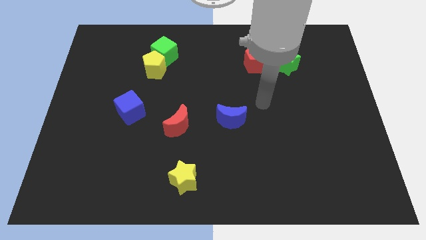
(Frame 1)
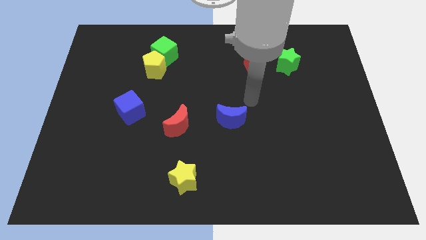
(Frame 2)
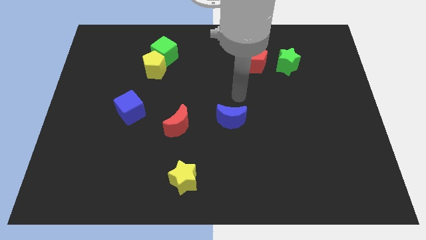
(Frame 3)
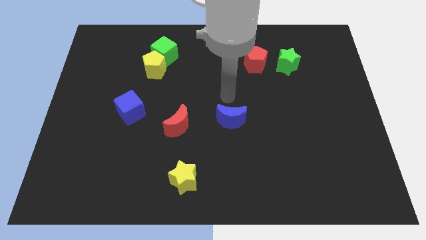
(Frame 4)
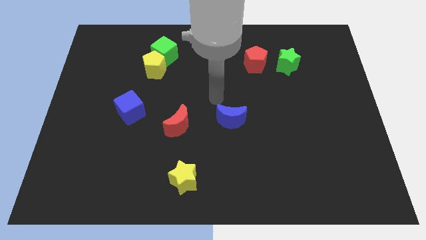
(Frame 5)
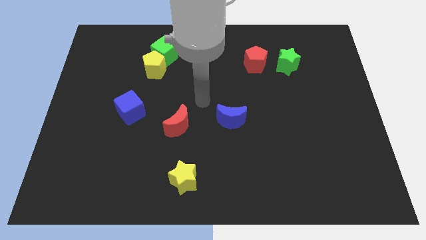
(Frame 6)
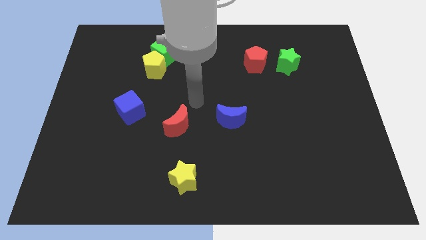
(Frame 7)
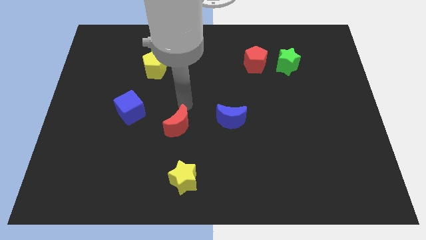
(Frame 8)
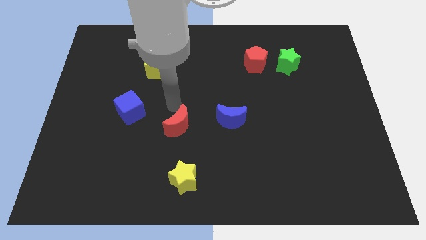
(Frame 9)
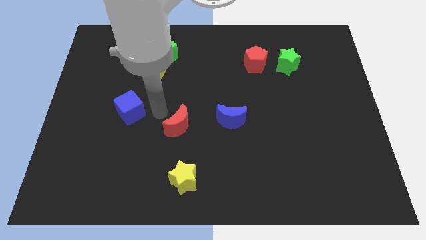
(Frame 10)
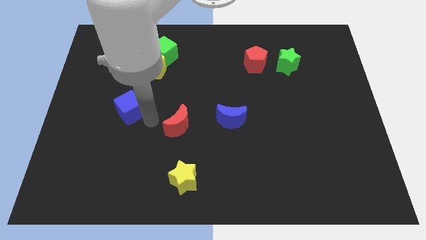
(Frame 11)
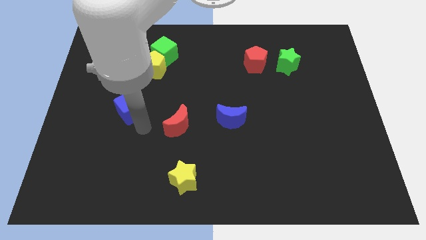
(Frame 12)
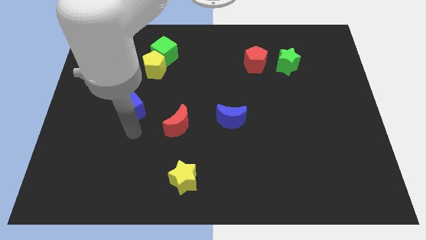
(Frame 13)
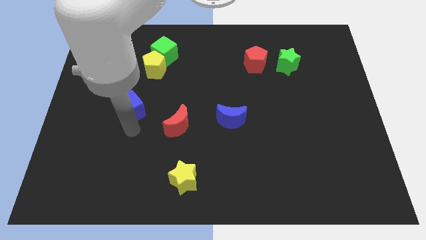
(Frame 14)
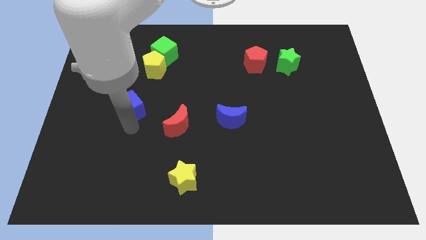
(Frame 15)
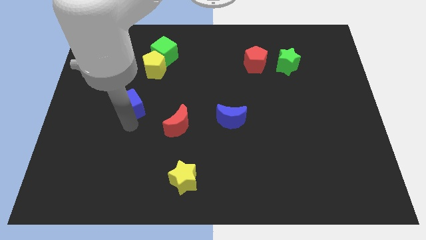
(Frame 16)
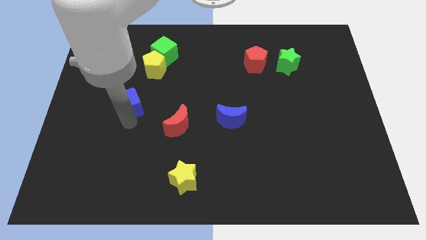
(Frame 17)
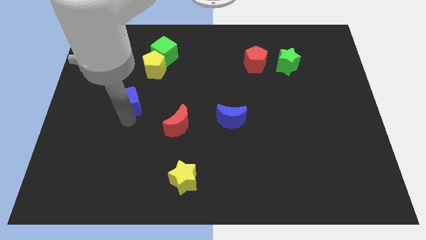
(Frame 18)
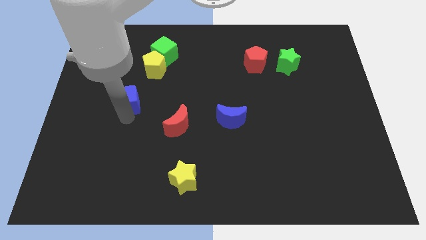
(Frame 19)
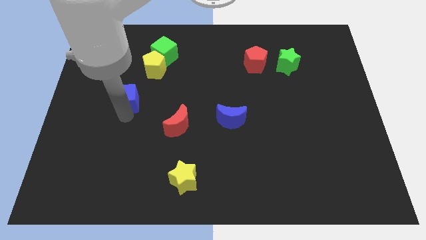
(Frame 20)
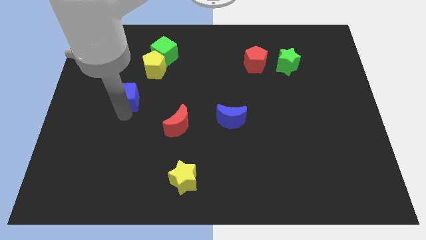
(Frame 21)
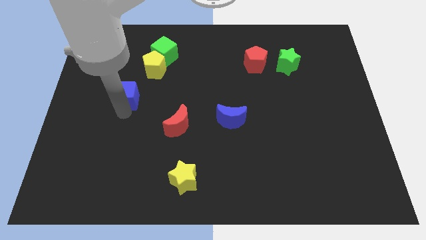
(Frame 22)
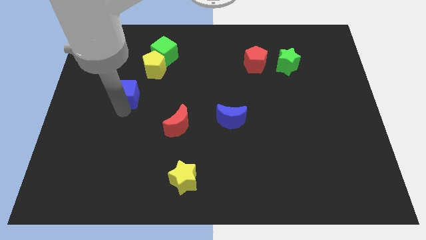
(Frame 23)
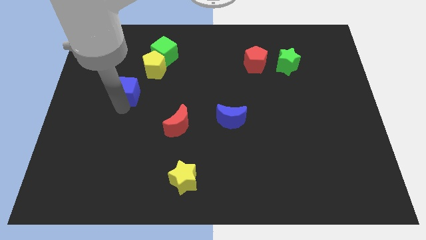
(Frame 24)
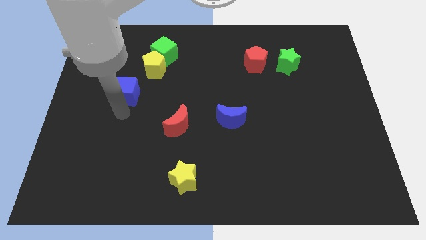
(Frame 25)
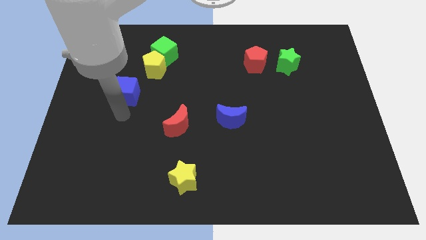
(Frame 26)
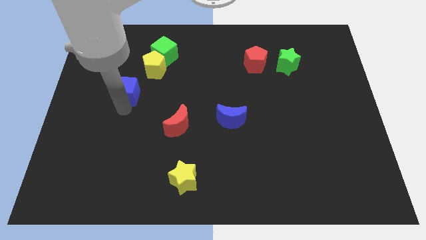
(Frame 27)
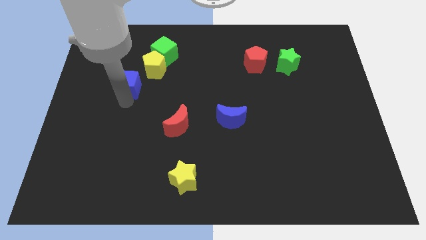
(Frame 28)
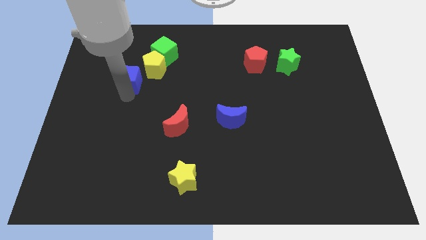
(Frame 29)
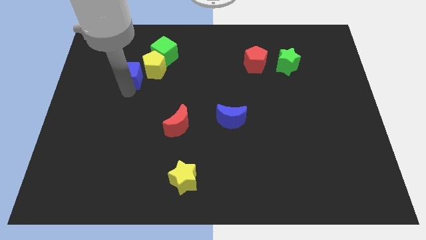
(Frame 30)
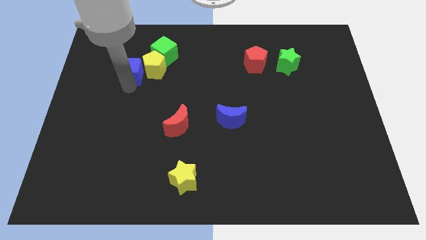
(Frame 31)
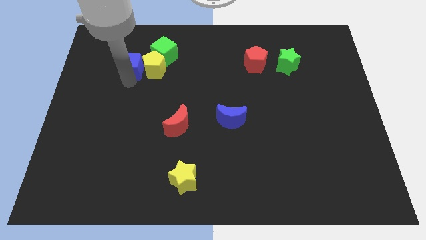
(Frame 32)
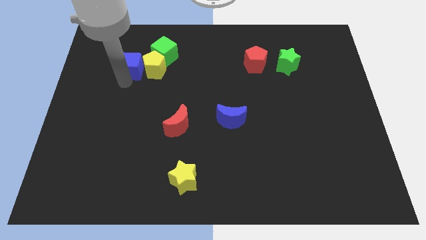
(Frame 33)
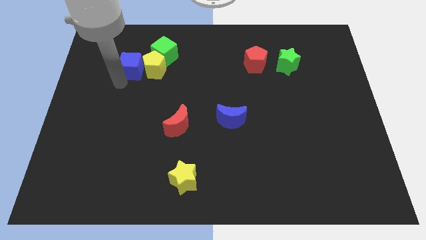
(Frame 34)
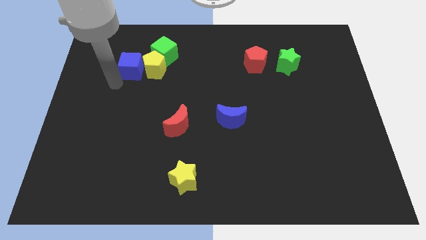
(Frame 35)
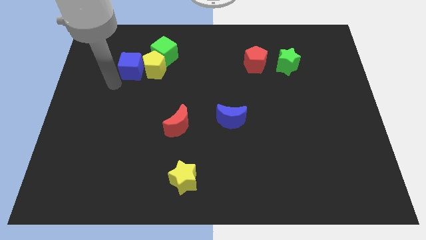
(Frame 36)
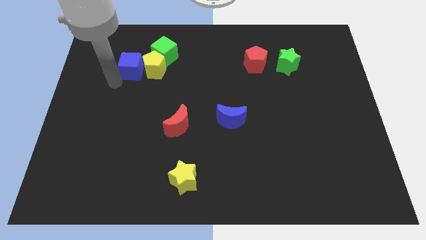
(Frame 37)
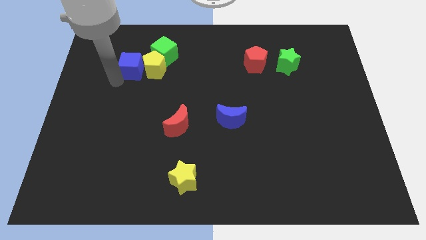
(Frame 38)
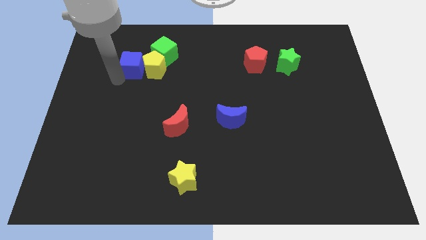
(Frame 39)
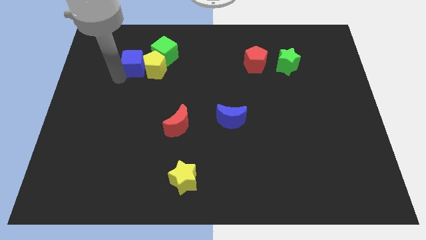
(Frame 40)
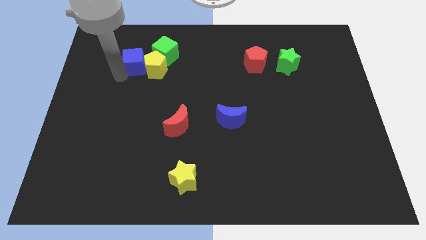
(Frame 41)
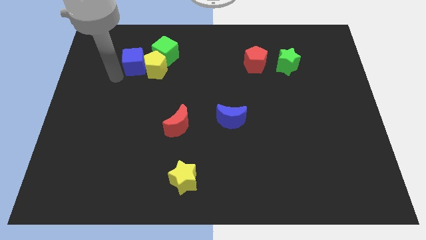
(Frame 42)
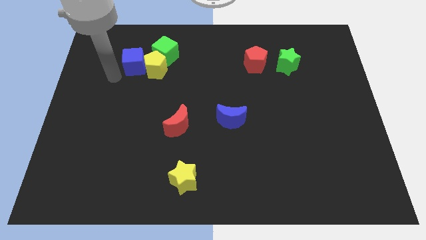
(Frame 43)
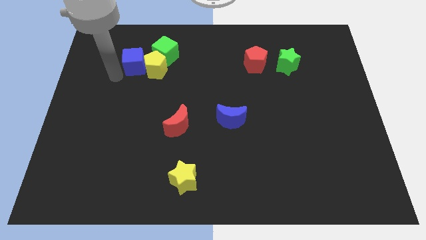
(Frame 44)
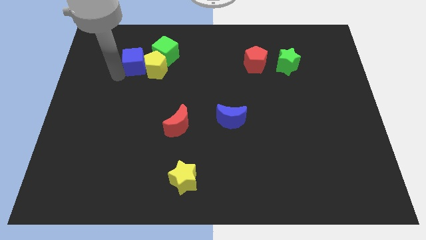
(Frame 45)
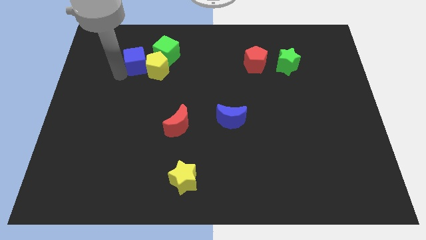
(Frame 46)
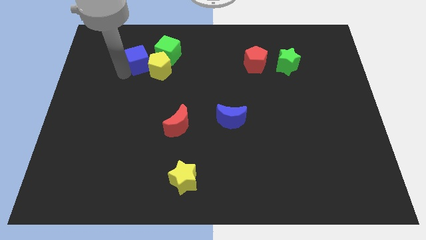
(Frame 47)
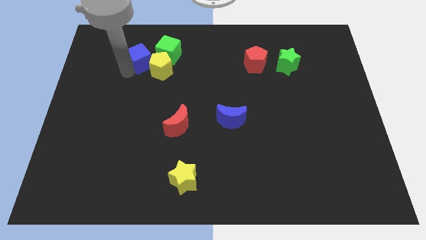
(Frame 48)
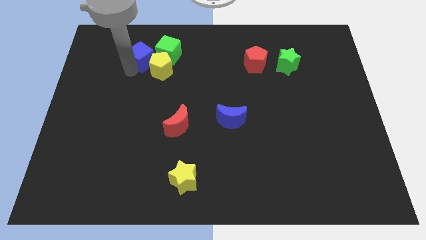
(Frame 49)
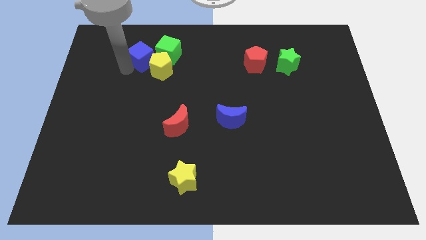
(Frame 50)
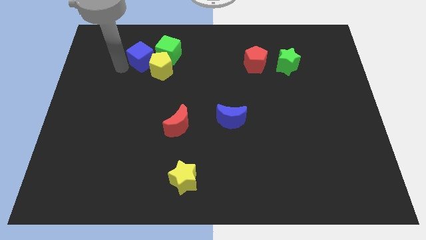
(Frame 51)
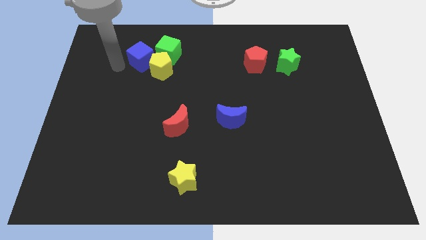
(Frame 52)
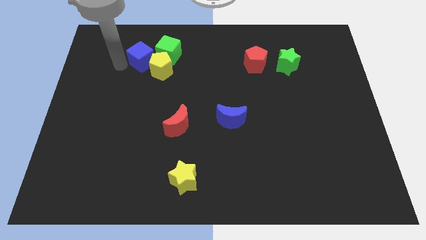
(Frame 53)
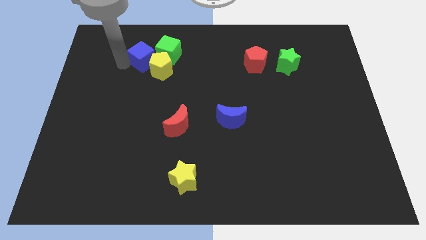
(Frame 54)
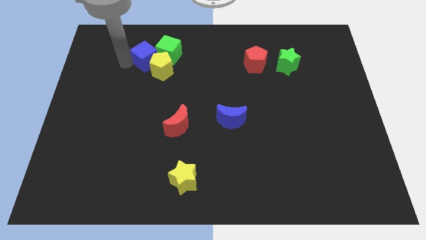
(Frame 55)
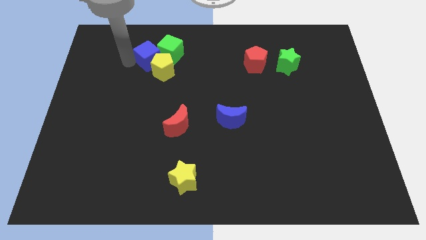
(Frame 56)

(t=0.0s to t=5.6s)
put the blue cube next to the green cube

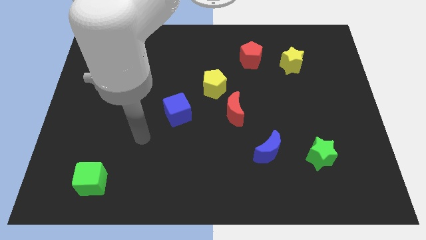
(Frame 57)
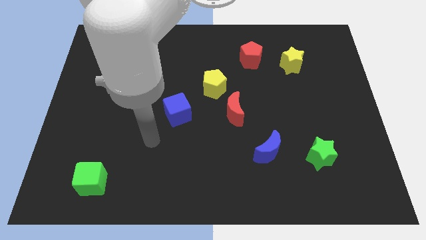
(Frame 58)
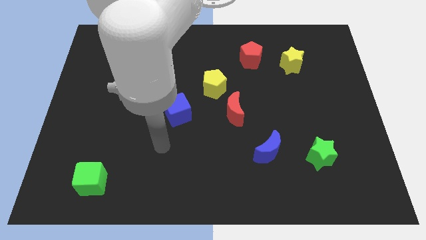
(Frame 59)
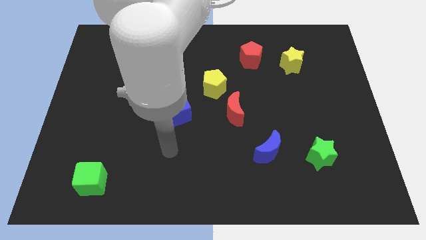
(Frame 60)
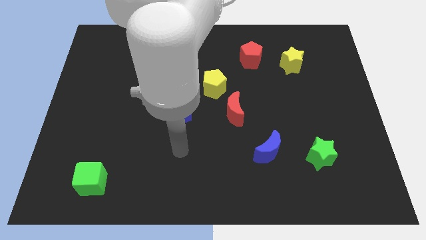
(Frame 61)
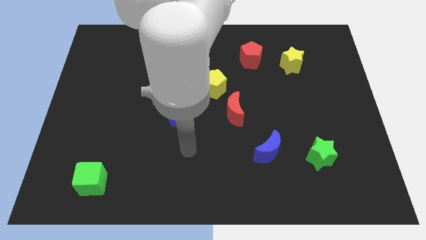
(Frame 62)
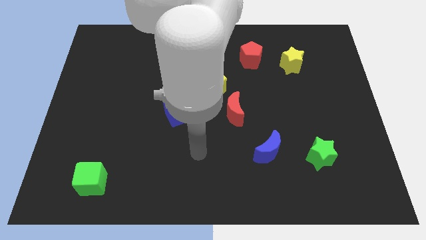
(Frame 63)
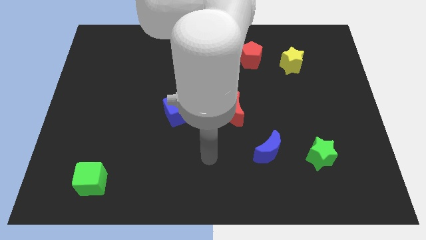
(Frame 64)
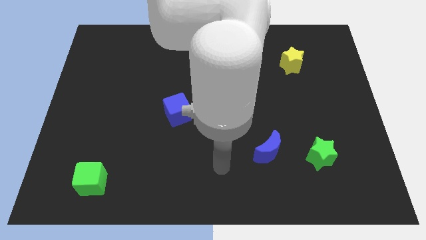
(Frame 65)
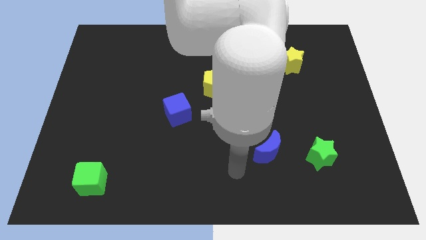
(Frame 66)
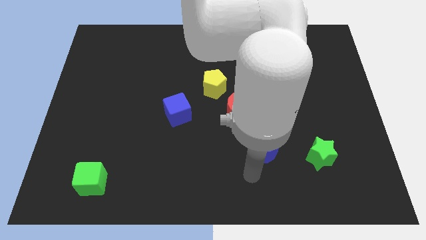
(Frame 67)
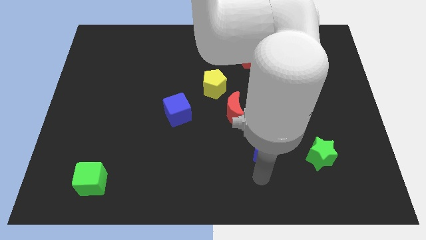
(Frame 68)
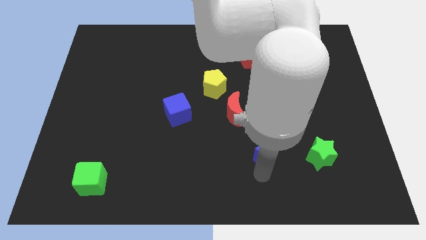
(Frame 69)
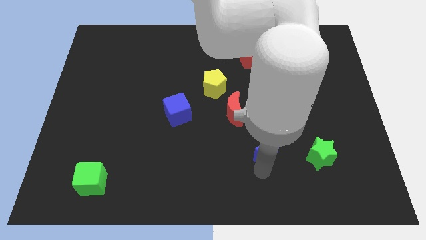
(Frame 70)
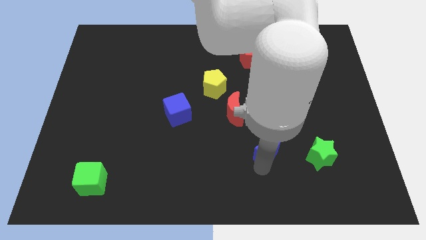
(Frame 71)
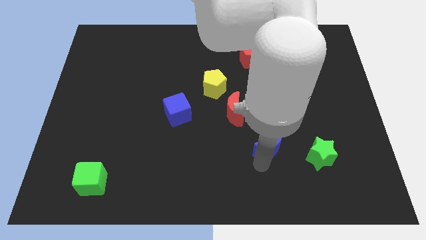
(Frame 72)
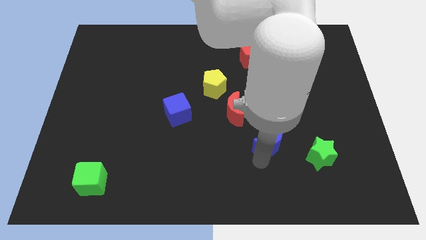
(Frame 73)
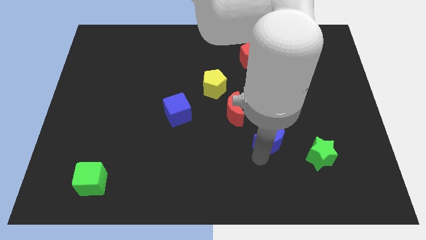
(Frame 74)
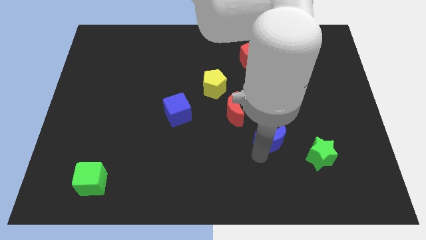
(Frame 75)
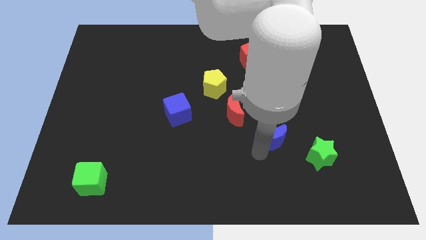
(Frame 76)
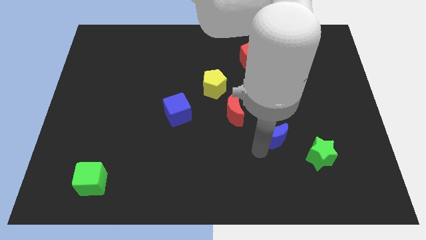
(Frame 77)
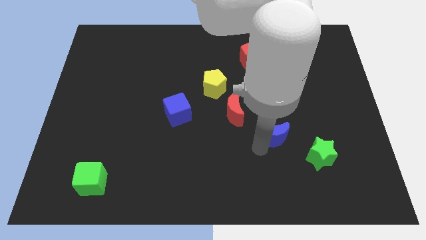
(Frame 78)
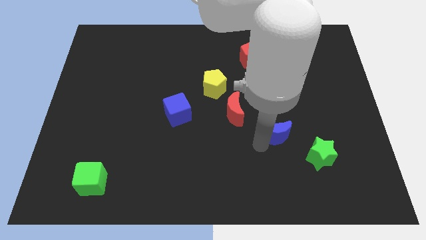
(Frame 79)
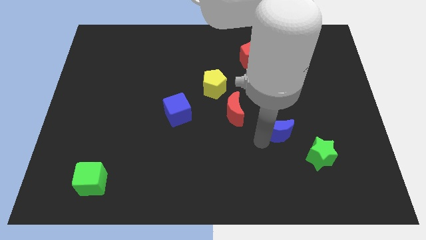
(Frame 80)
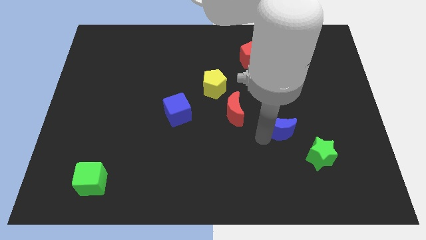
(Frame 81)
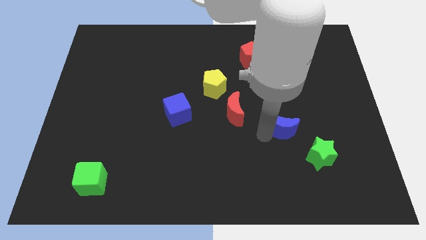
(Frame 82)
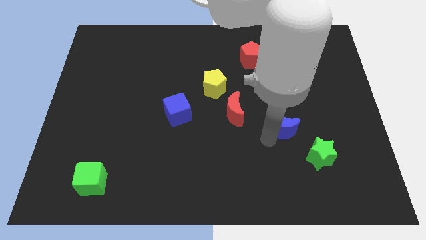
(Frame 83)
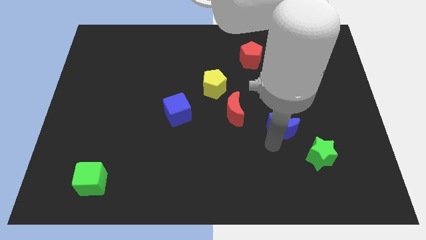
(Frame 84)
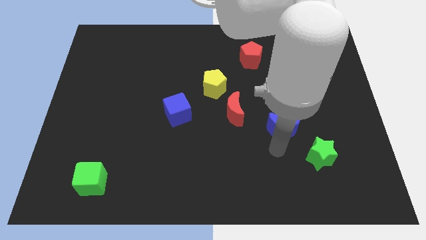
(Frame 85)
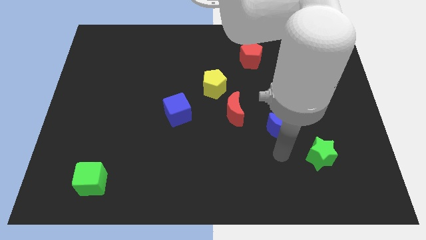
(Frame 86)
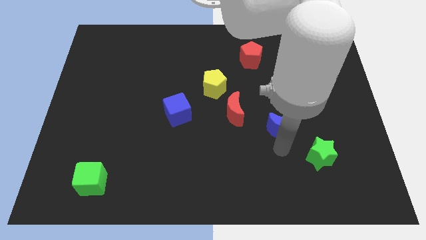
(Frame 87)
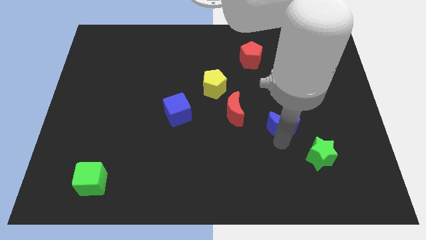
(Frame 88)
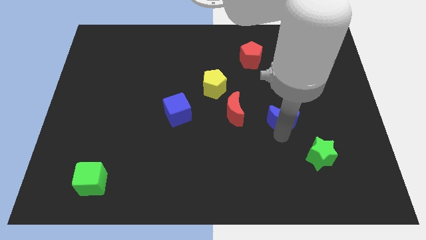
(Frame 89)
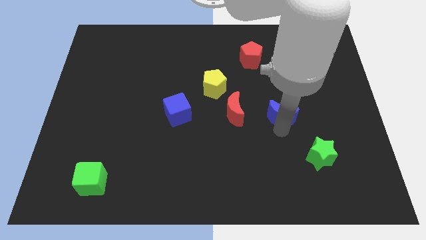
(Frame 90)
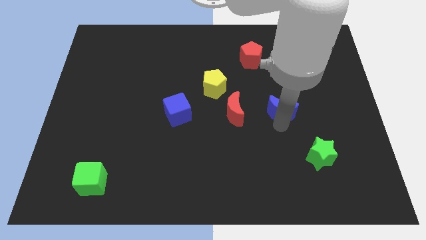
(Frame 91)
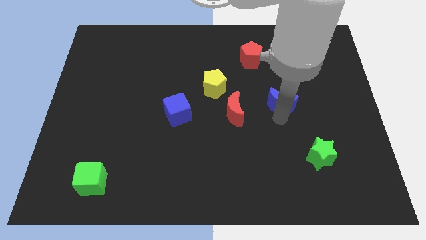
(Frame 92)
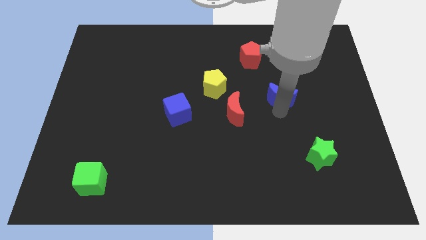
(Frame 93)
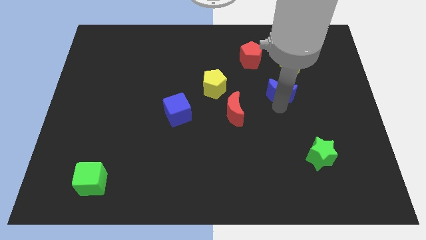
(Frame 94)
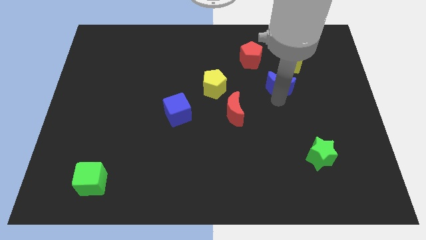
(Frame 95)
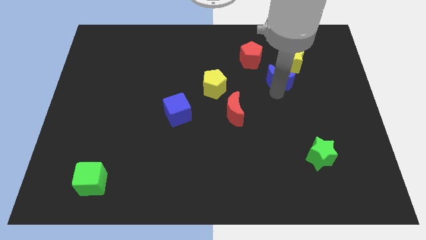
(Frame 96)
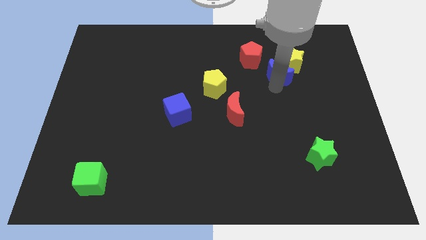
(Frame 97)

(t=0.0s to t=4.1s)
put the blue moon towards the yellow star
